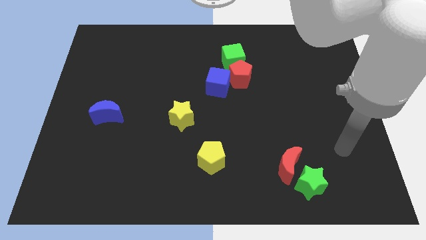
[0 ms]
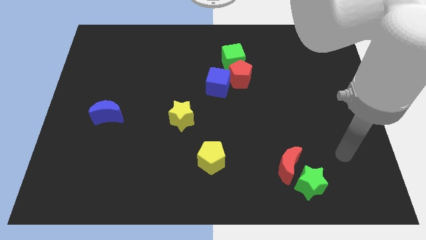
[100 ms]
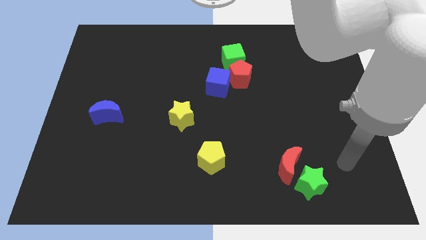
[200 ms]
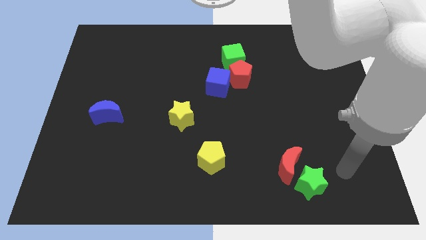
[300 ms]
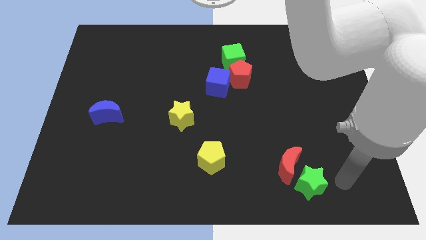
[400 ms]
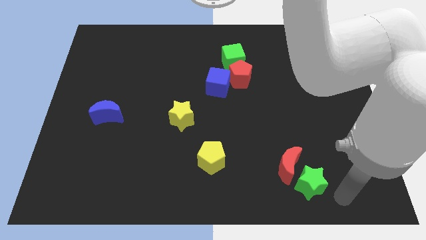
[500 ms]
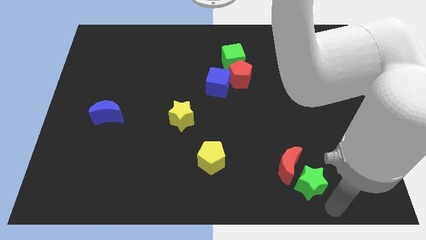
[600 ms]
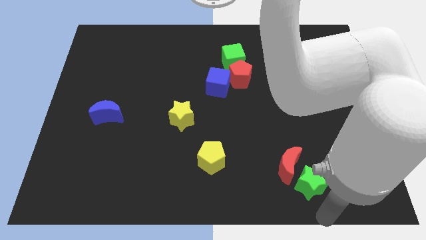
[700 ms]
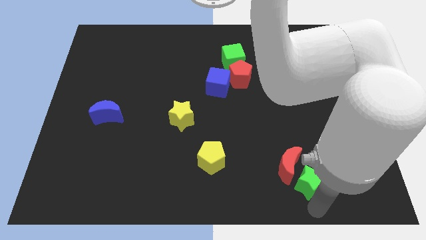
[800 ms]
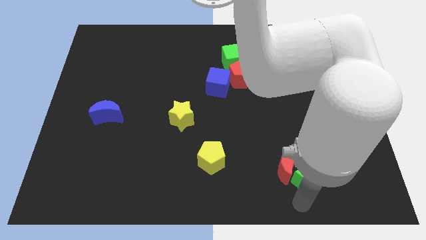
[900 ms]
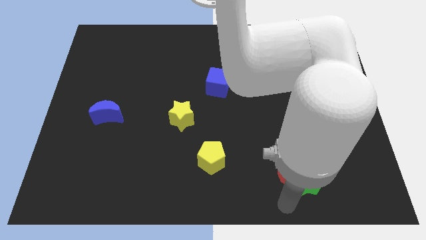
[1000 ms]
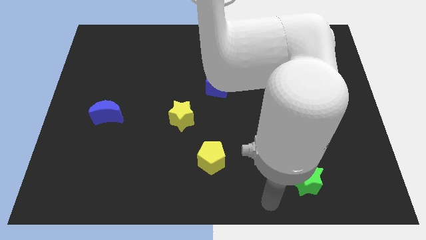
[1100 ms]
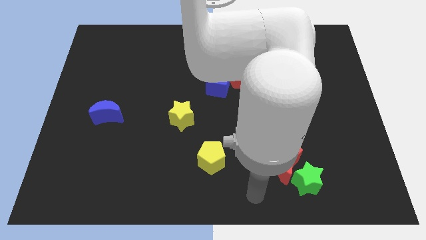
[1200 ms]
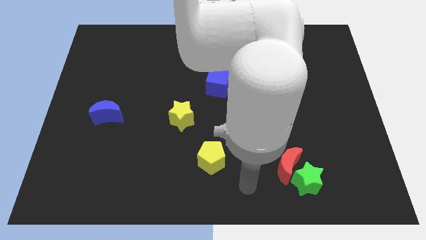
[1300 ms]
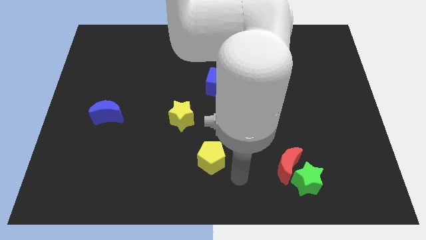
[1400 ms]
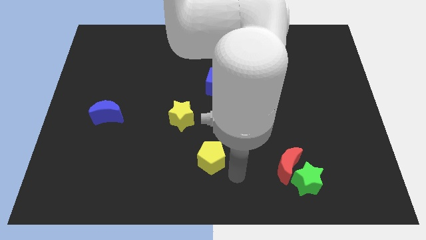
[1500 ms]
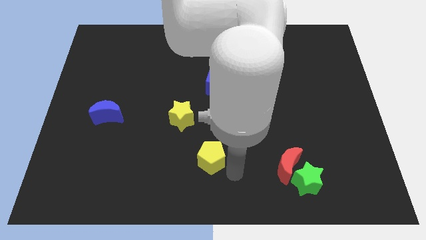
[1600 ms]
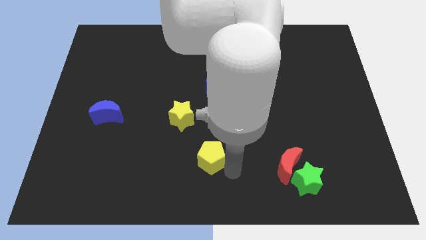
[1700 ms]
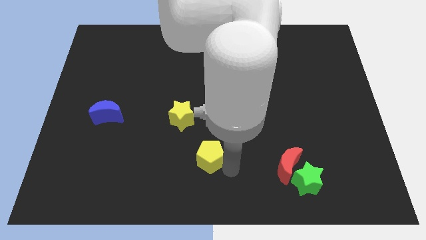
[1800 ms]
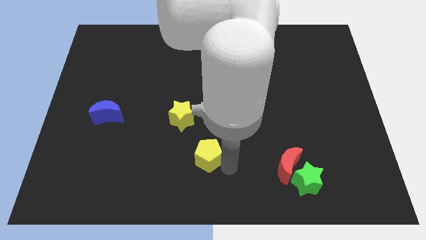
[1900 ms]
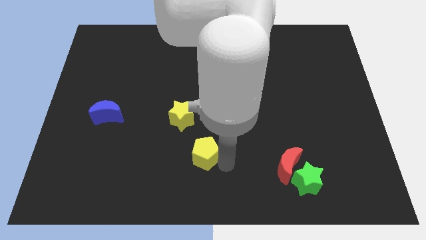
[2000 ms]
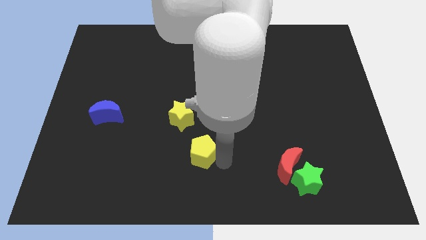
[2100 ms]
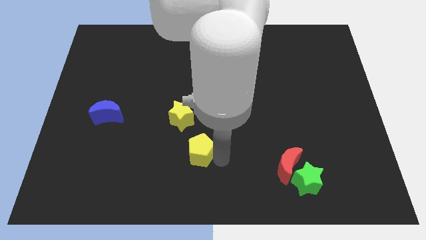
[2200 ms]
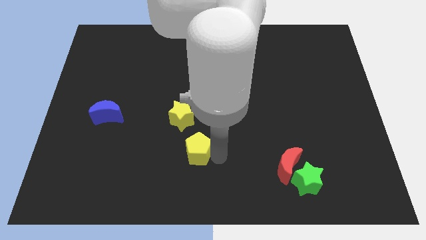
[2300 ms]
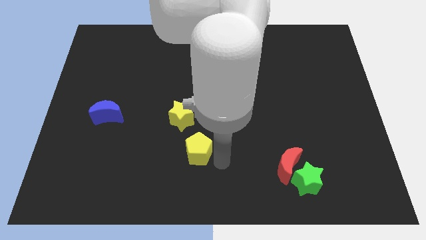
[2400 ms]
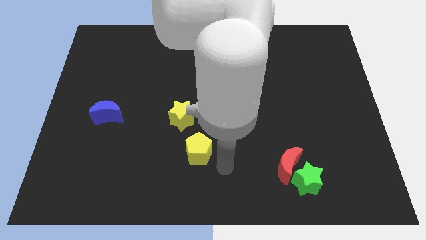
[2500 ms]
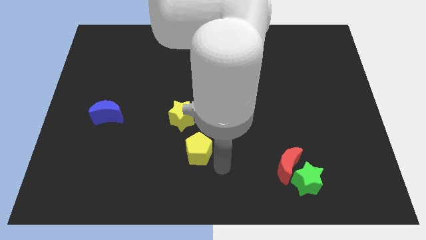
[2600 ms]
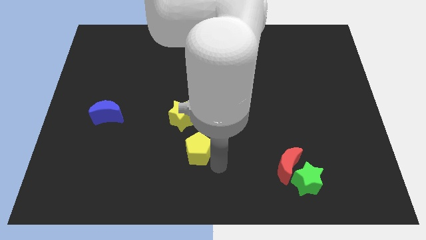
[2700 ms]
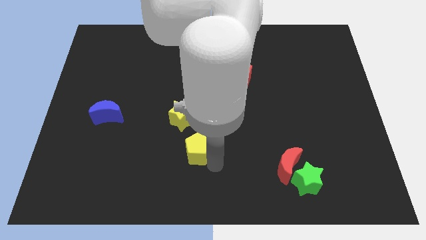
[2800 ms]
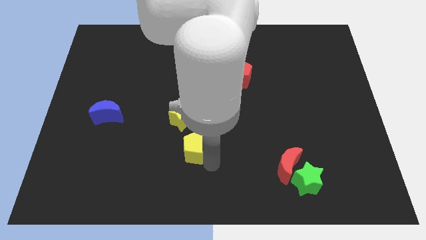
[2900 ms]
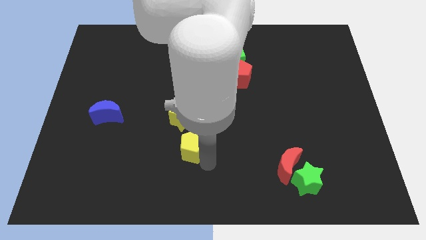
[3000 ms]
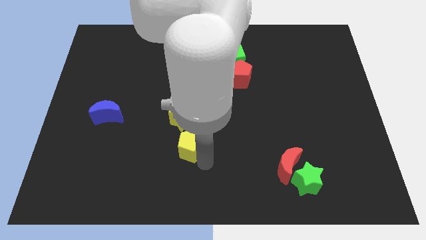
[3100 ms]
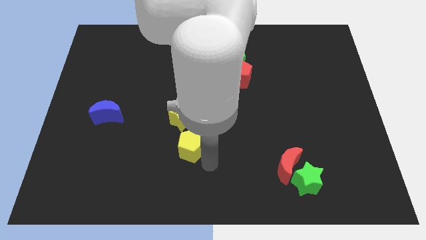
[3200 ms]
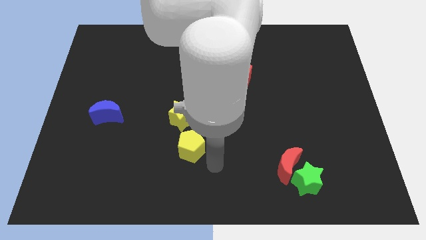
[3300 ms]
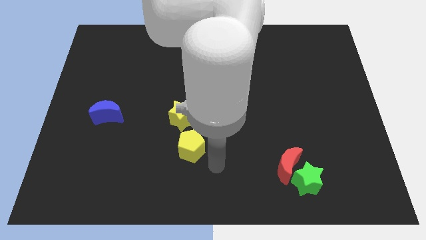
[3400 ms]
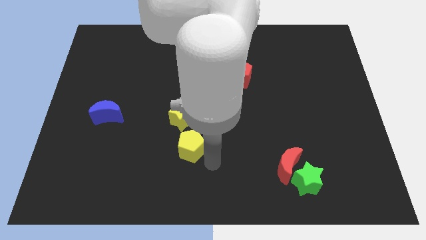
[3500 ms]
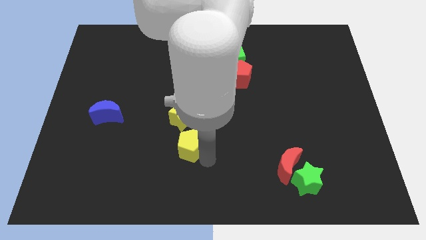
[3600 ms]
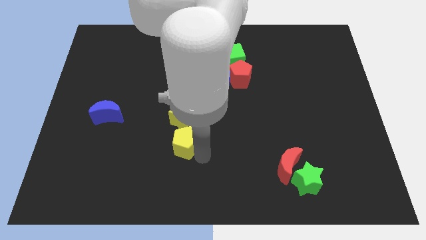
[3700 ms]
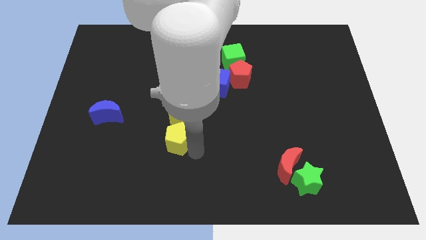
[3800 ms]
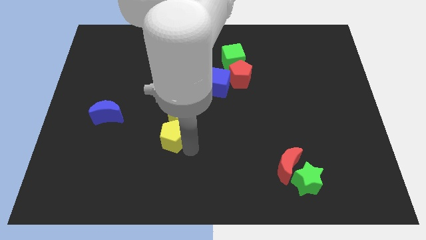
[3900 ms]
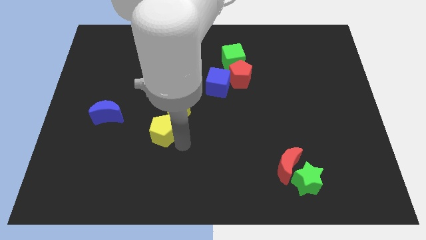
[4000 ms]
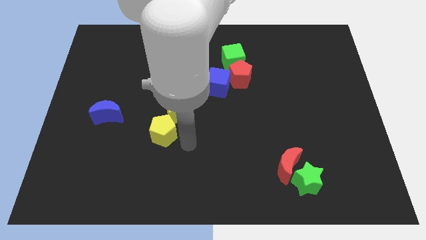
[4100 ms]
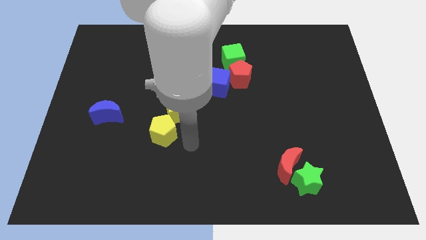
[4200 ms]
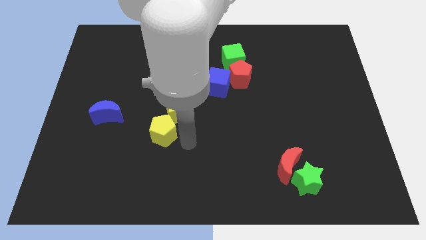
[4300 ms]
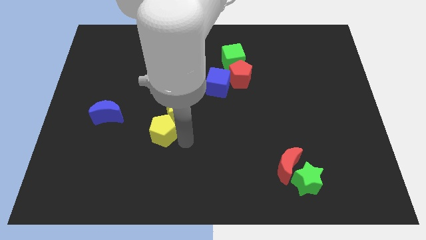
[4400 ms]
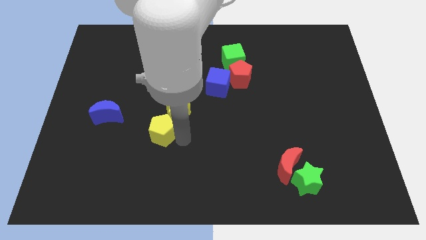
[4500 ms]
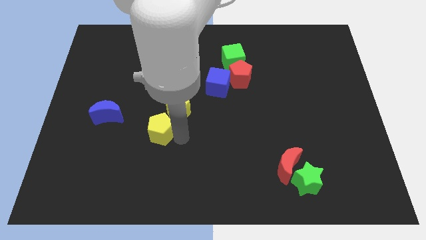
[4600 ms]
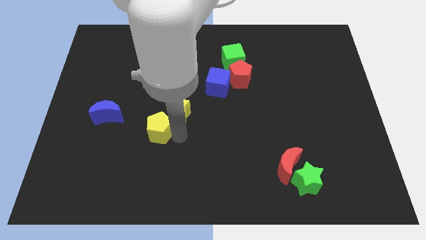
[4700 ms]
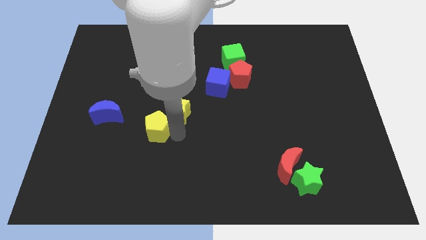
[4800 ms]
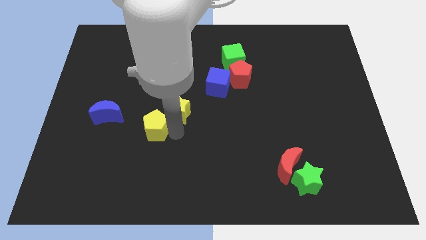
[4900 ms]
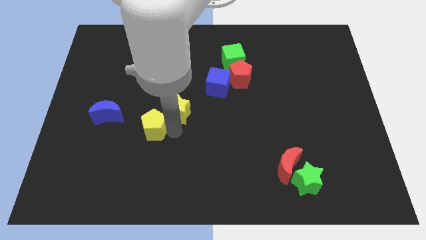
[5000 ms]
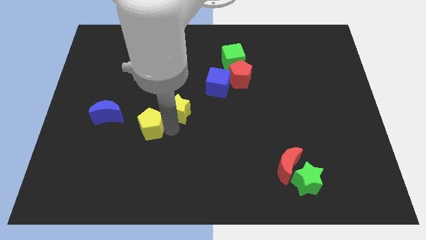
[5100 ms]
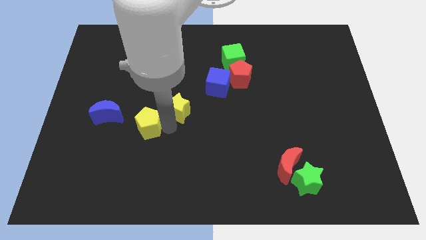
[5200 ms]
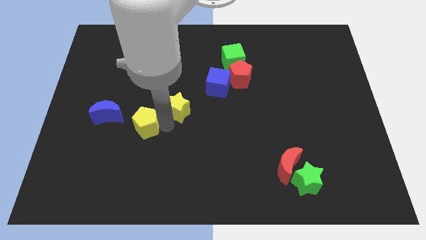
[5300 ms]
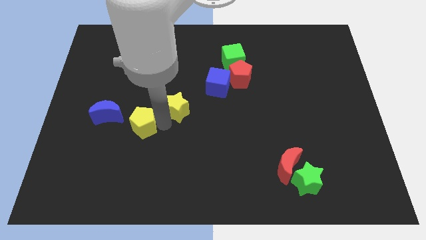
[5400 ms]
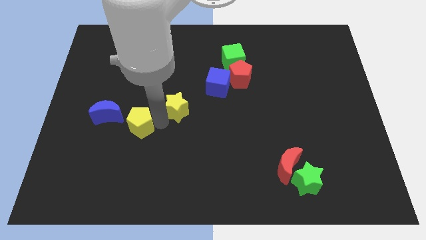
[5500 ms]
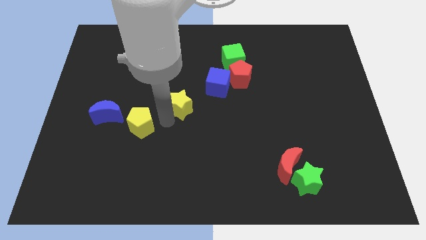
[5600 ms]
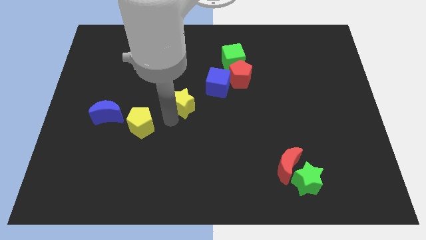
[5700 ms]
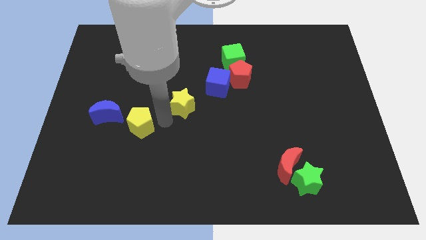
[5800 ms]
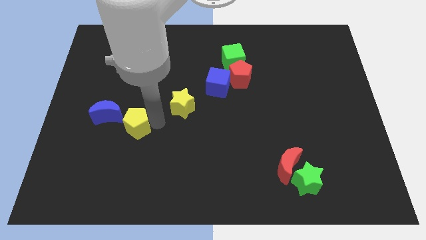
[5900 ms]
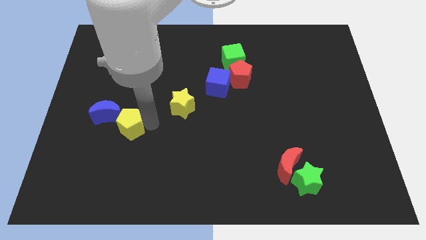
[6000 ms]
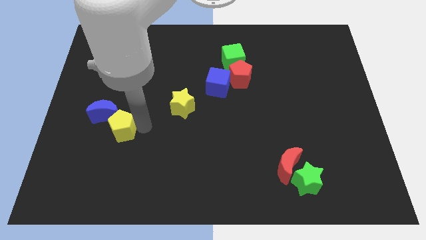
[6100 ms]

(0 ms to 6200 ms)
put the yellow pentagon close to the blue moon
